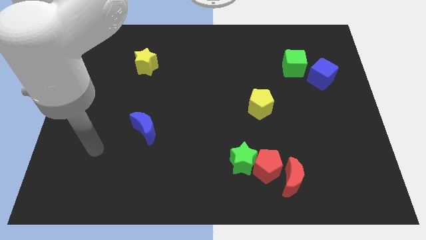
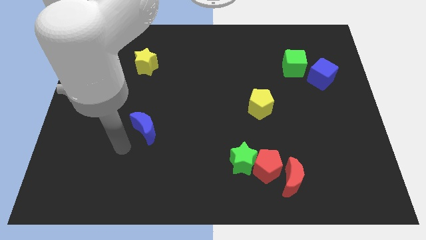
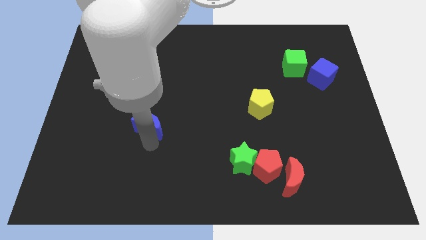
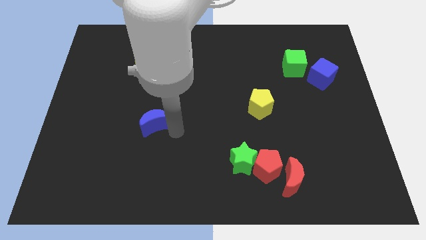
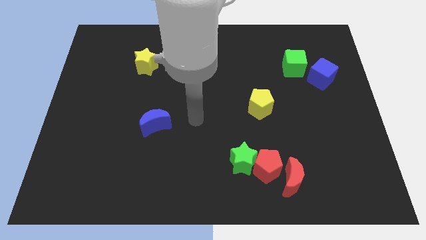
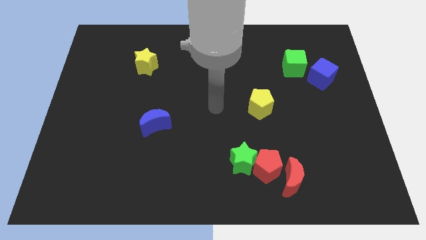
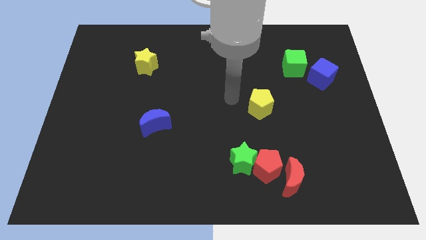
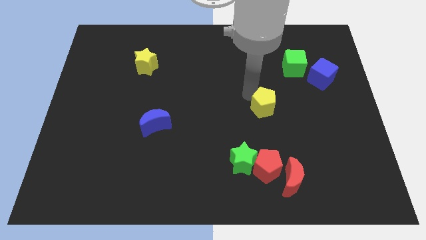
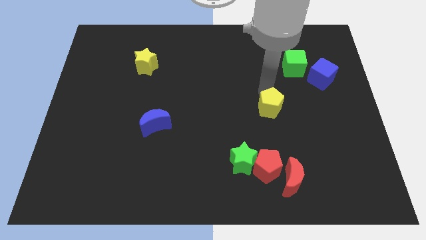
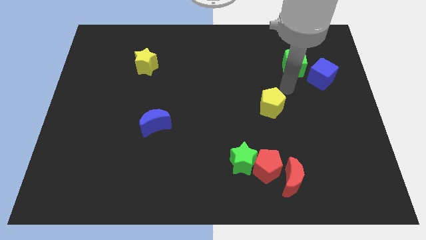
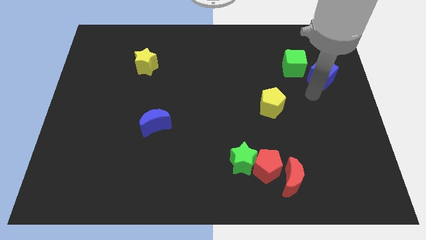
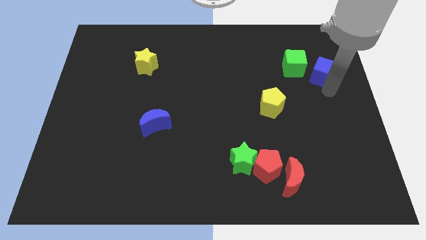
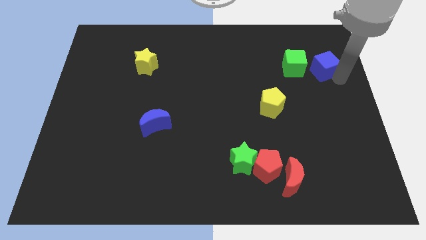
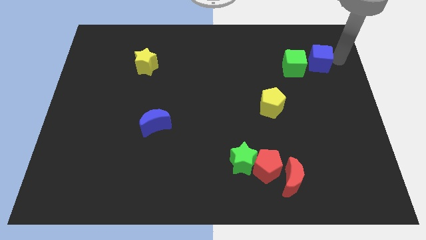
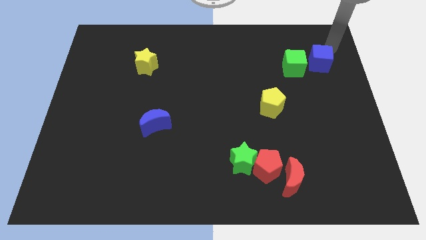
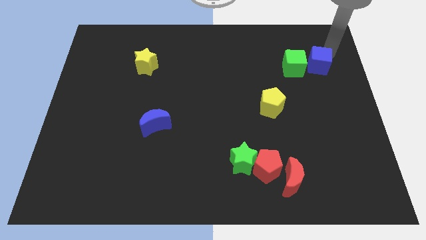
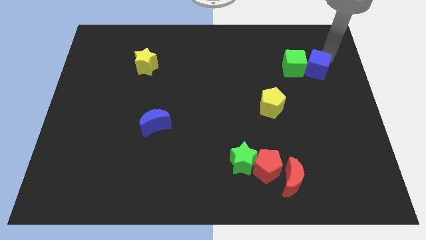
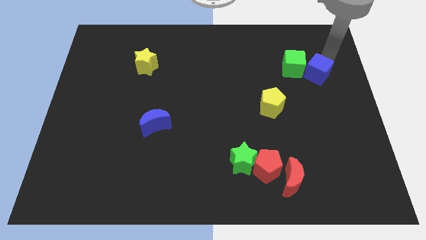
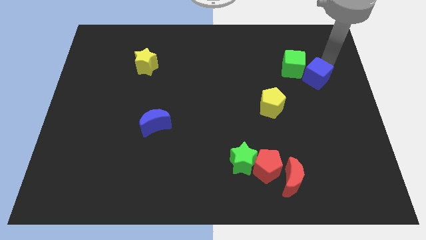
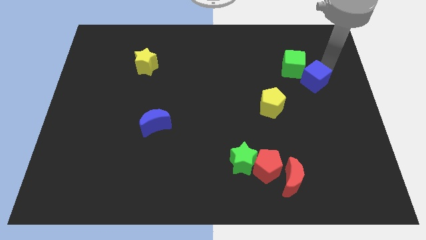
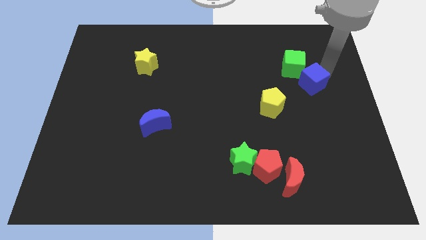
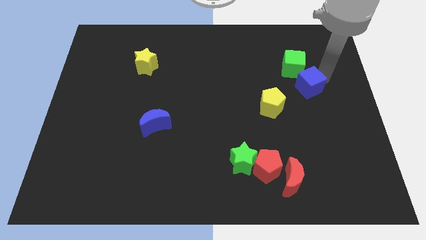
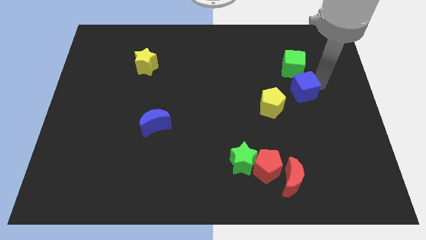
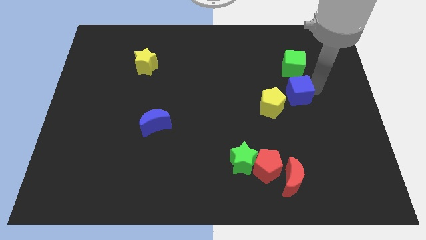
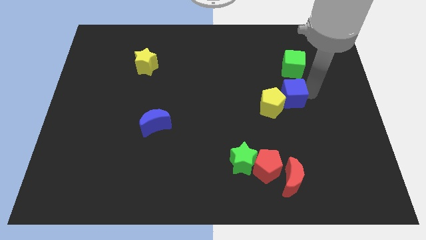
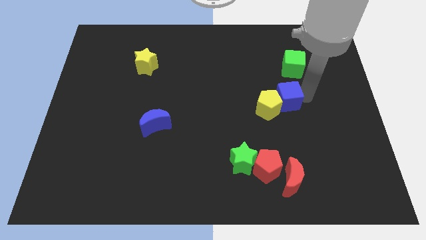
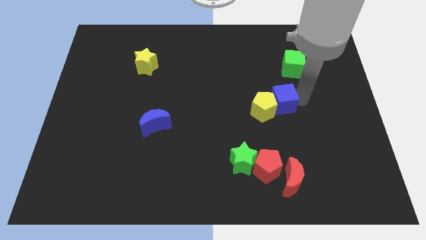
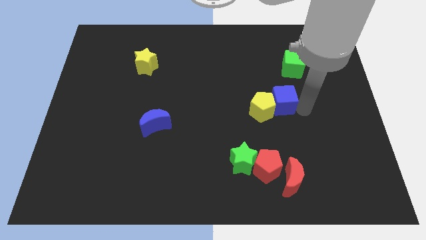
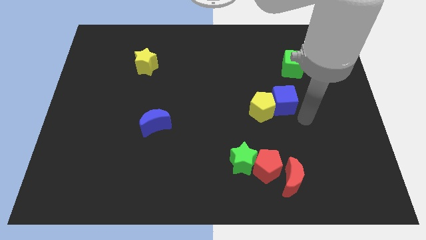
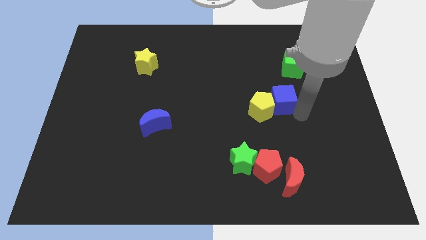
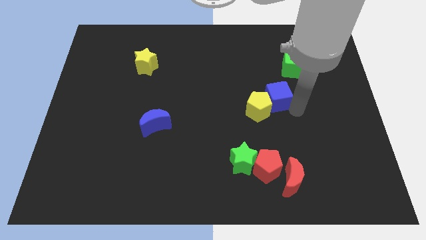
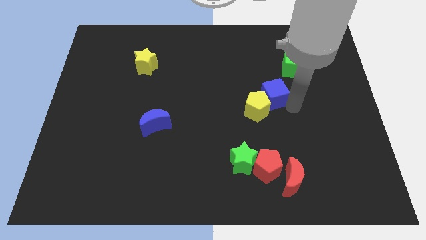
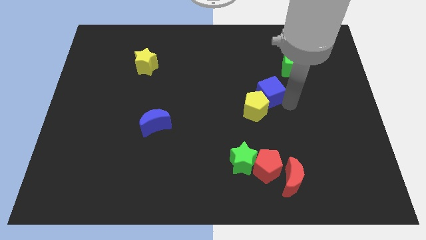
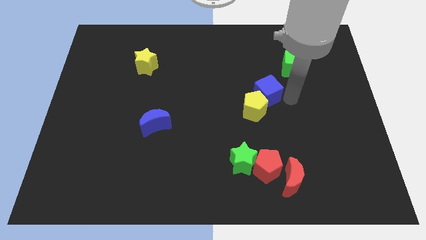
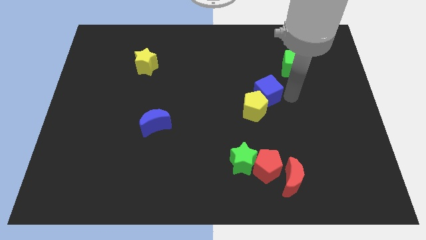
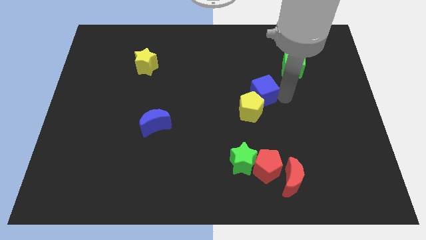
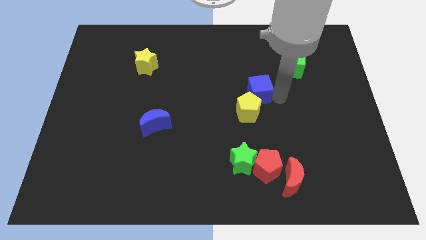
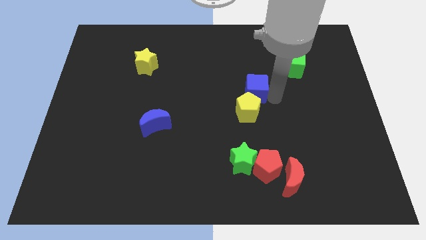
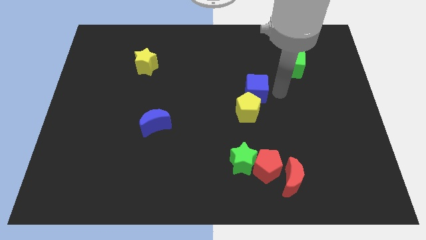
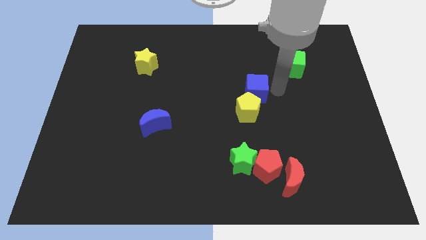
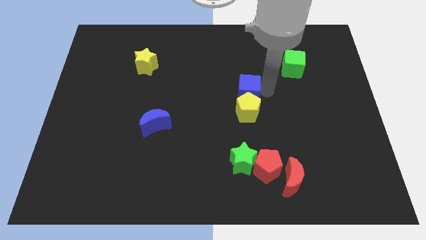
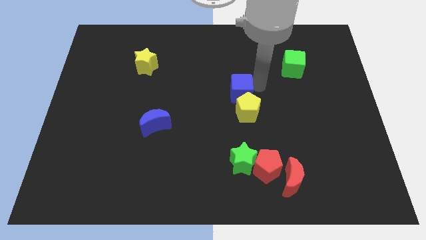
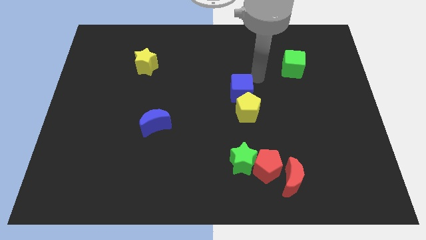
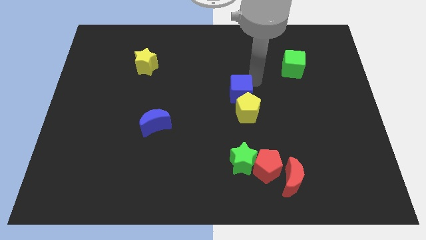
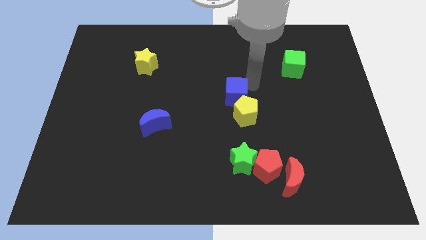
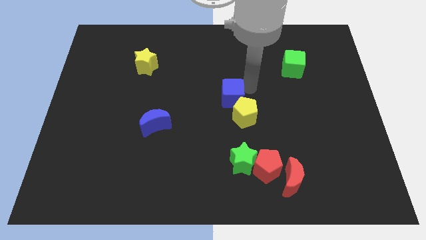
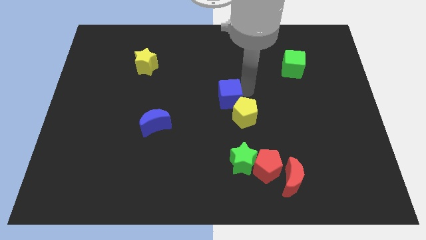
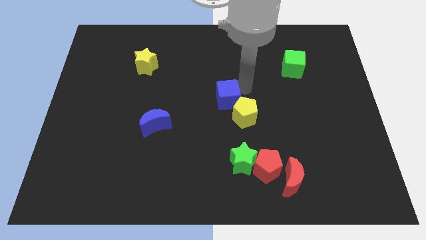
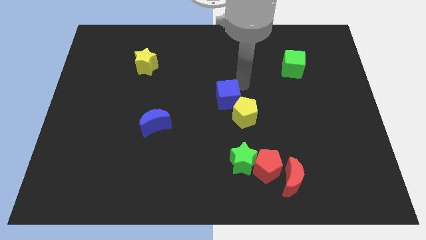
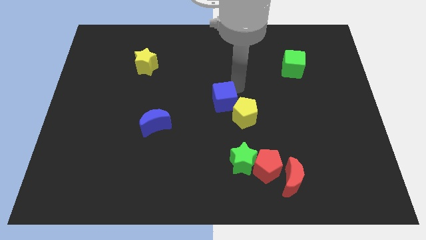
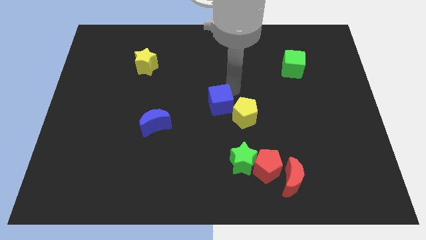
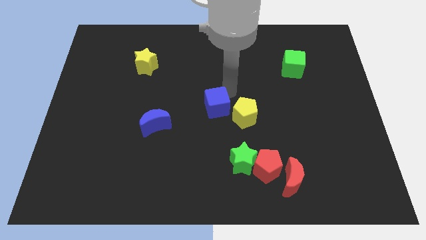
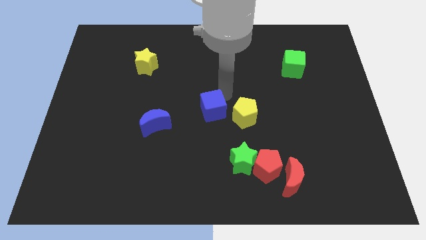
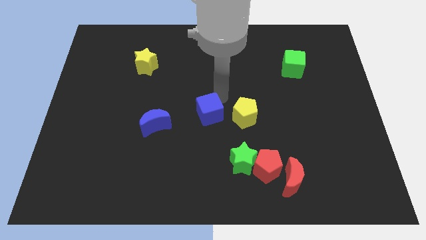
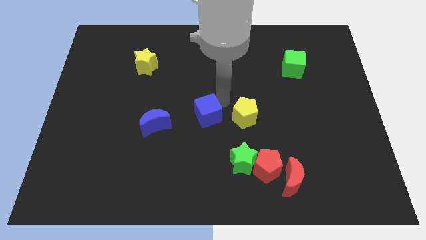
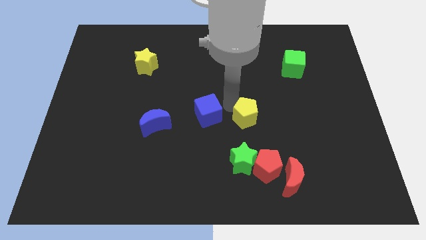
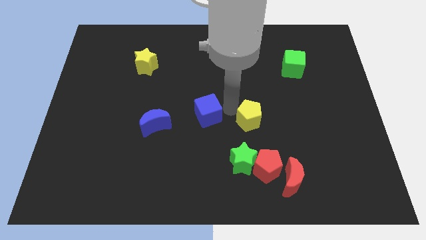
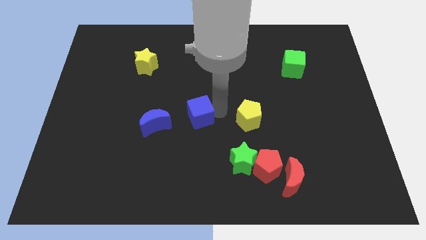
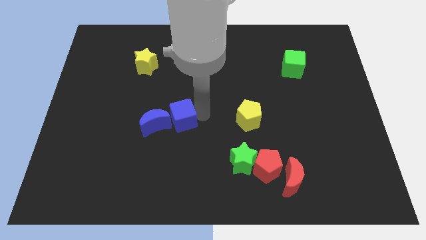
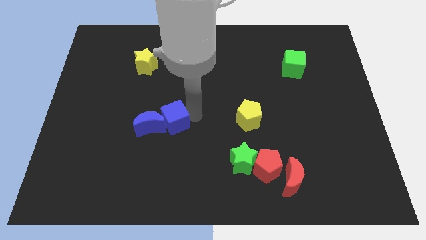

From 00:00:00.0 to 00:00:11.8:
put the blue cube towards the blue moon

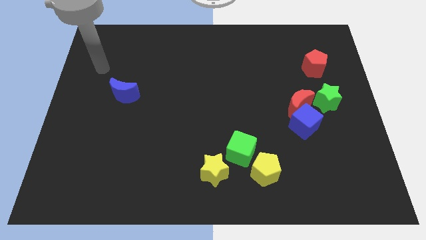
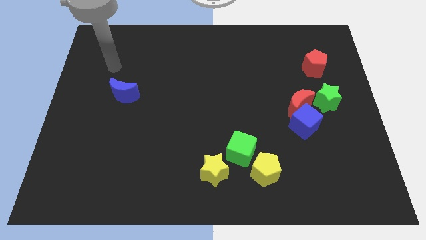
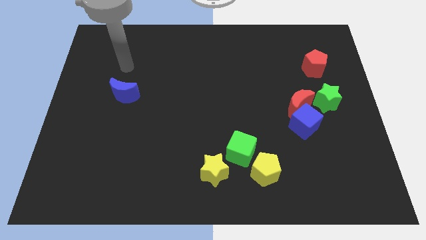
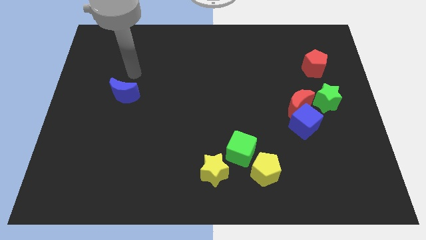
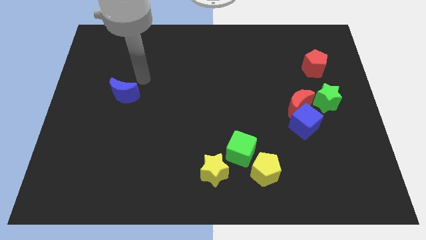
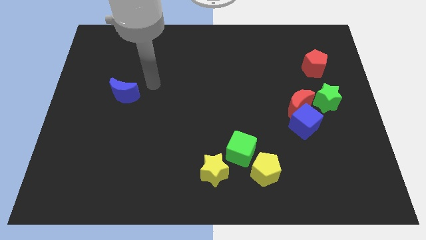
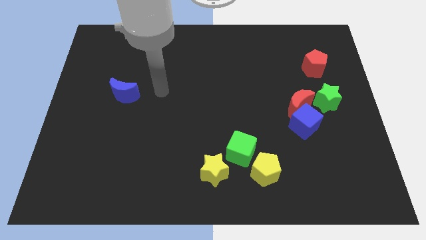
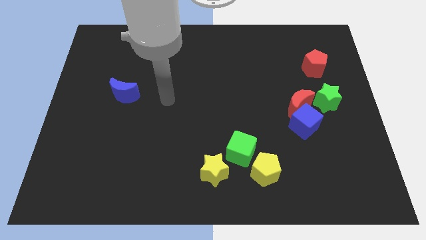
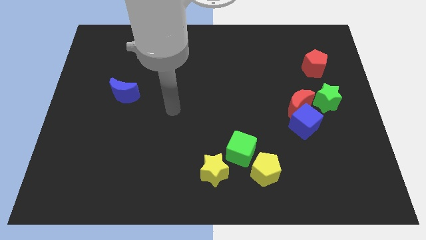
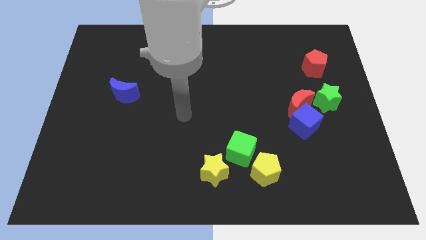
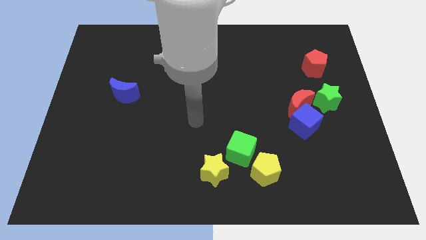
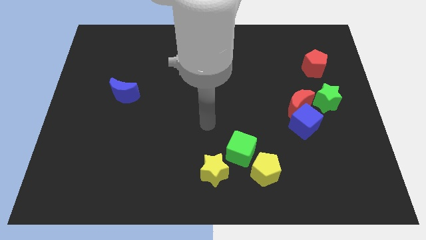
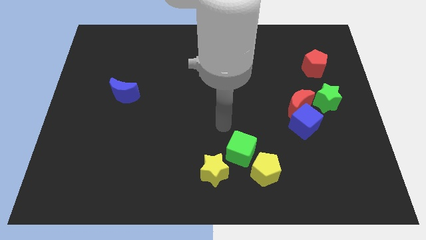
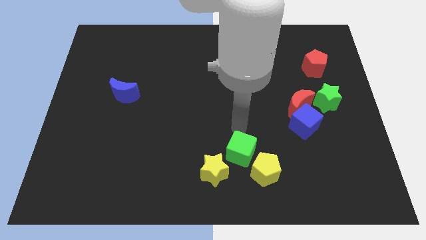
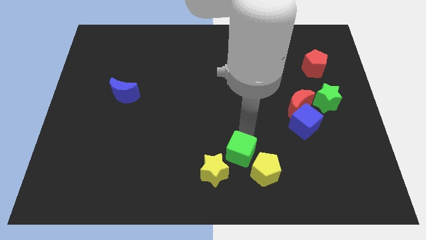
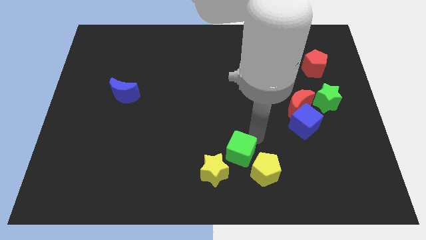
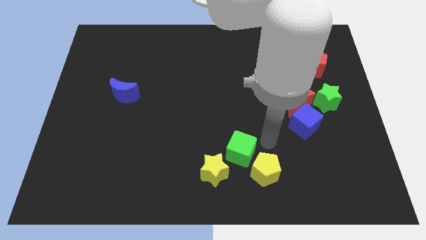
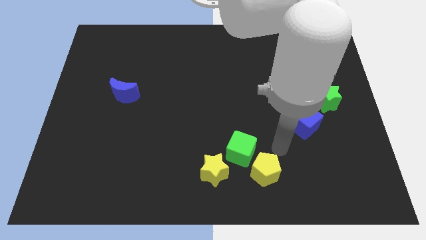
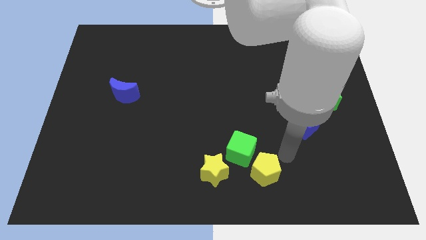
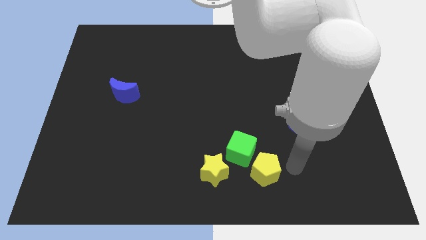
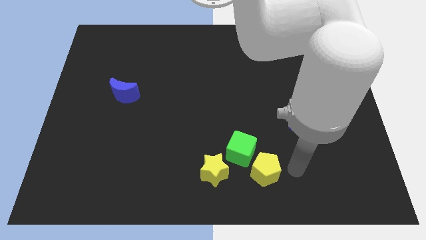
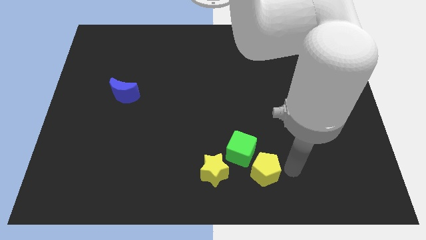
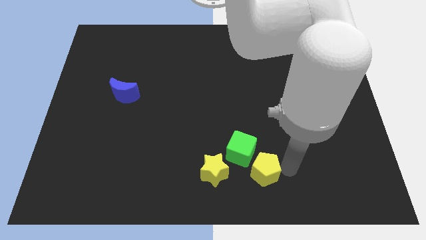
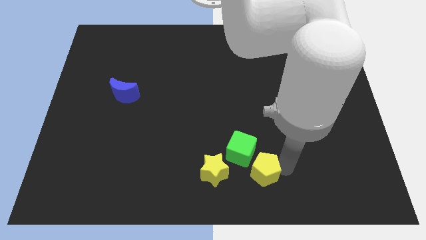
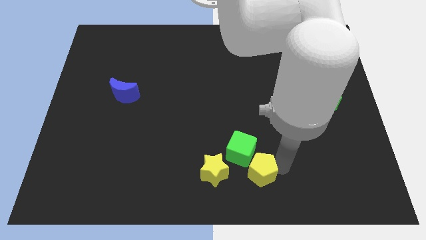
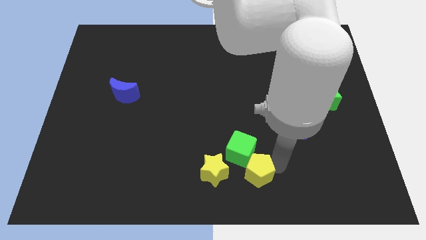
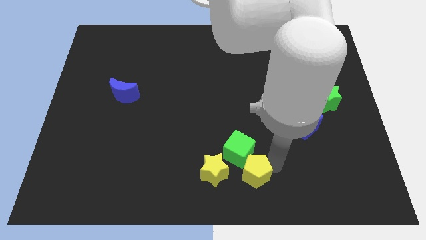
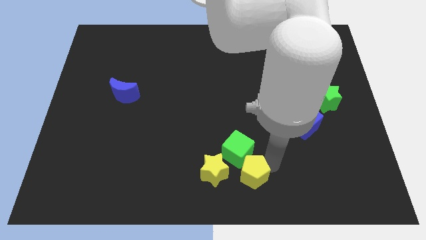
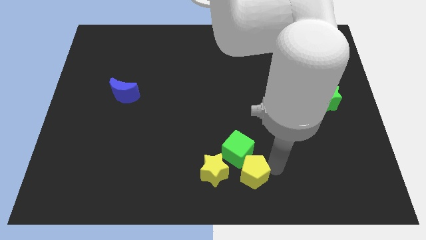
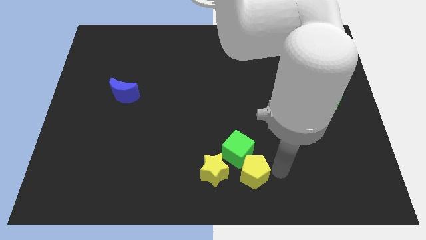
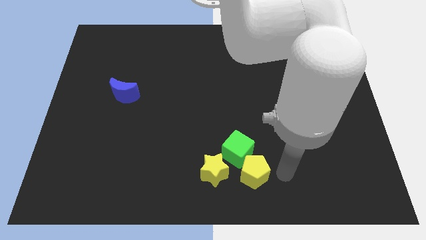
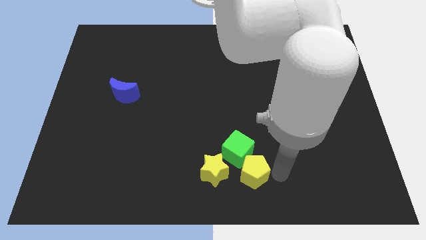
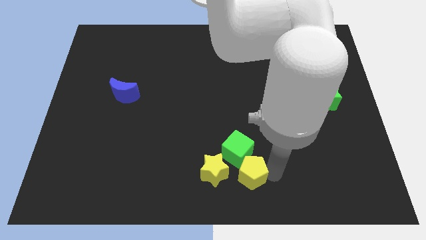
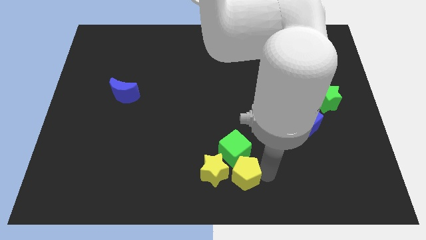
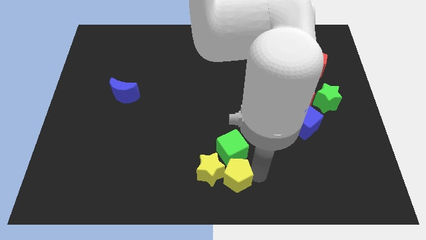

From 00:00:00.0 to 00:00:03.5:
move the yellow pentagon next to the yellow star
